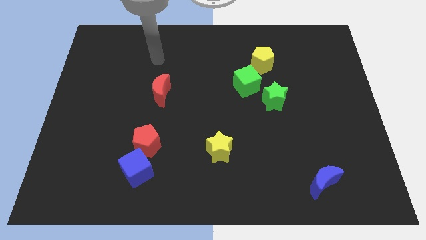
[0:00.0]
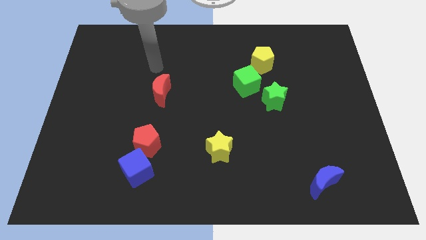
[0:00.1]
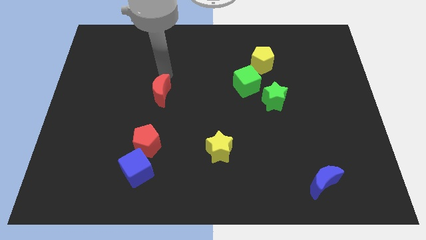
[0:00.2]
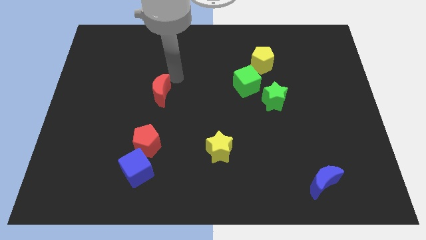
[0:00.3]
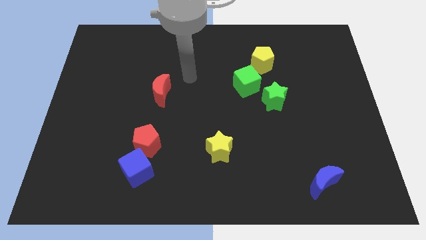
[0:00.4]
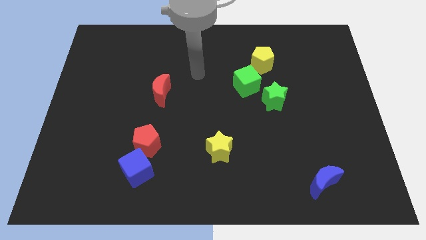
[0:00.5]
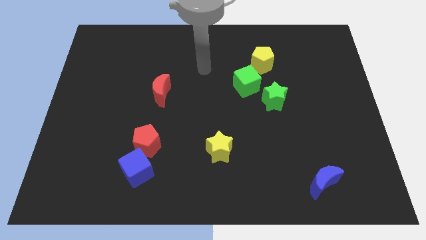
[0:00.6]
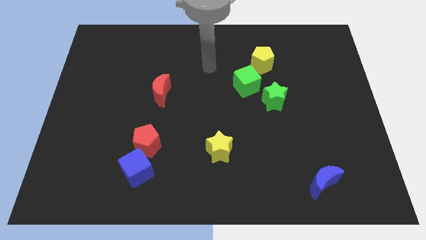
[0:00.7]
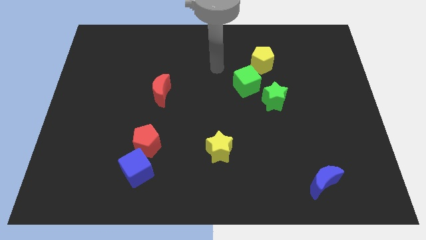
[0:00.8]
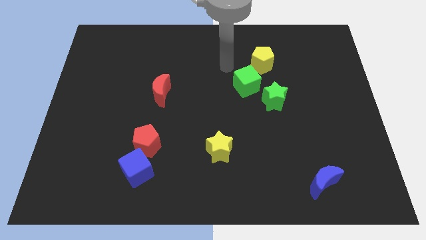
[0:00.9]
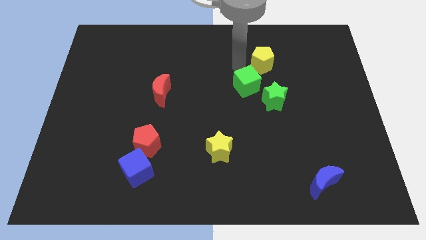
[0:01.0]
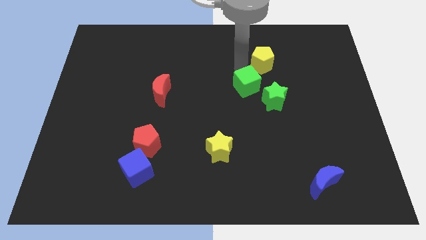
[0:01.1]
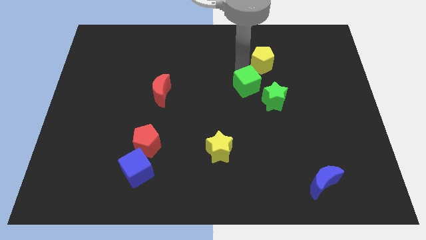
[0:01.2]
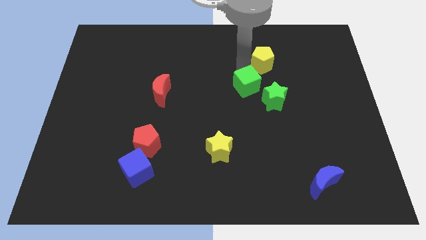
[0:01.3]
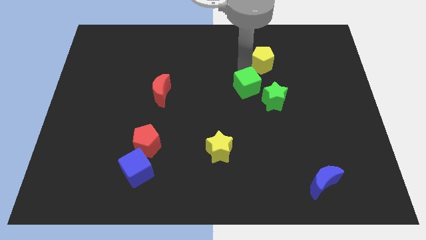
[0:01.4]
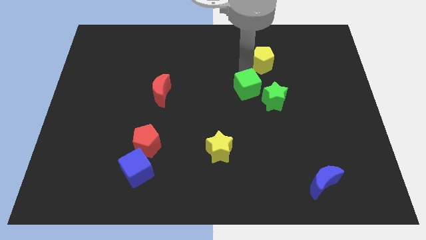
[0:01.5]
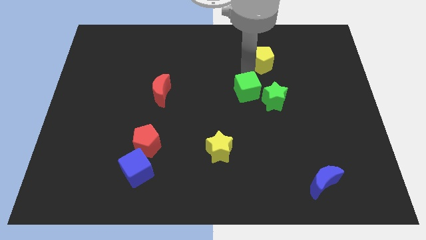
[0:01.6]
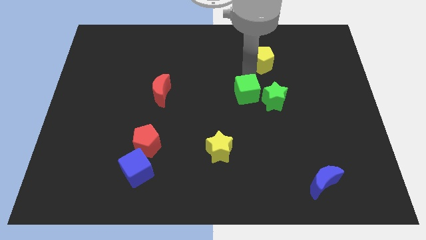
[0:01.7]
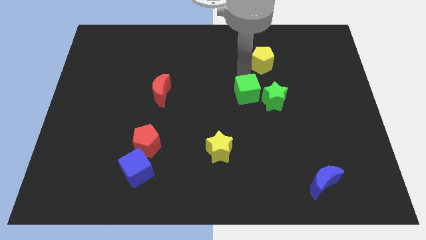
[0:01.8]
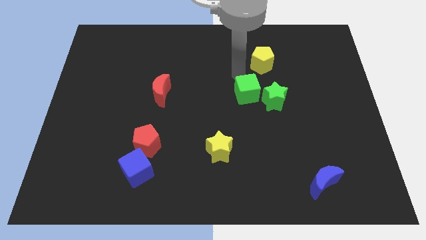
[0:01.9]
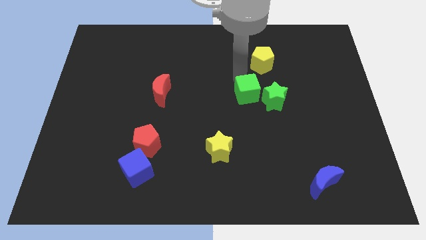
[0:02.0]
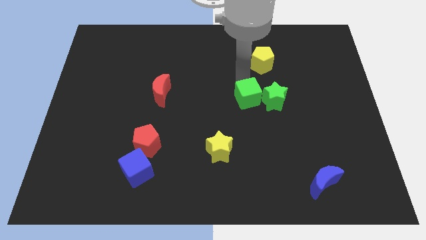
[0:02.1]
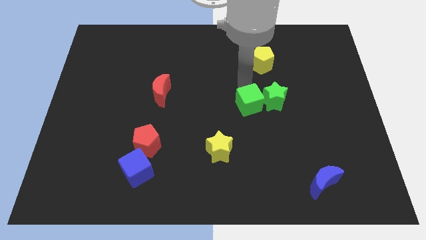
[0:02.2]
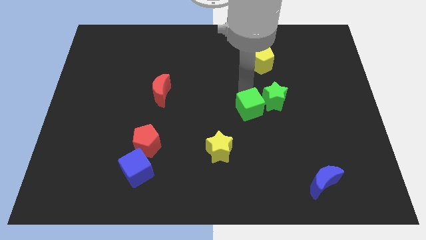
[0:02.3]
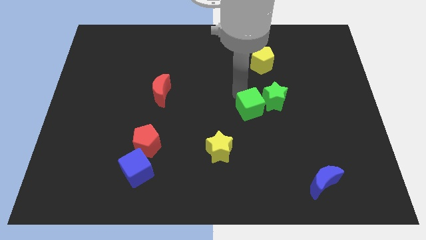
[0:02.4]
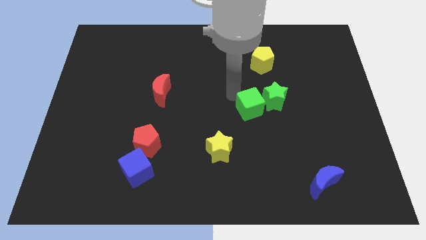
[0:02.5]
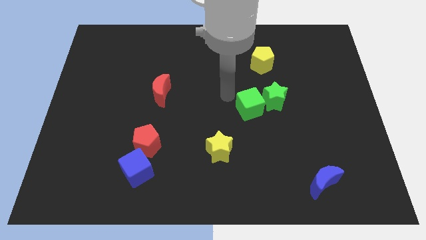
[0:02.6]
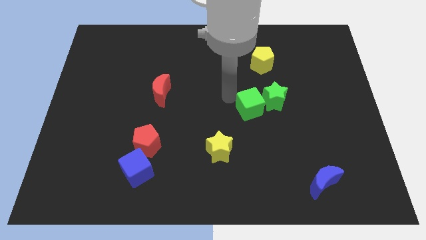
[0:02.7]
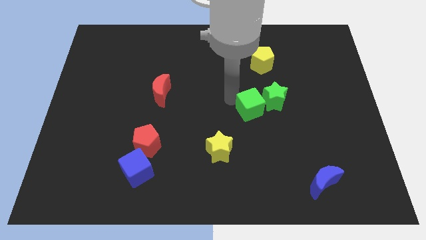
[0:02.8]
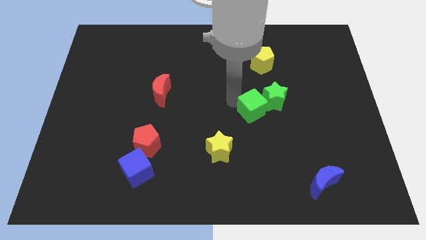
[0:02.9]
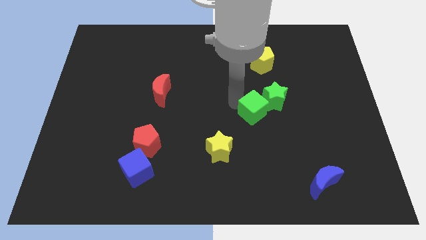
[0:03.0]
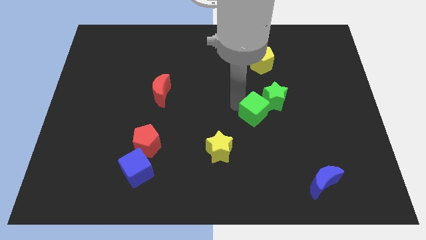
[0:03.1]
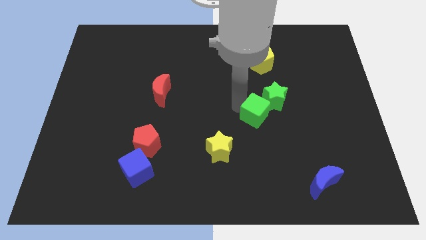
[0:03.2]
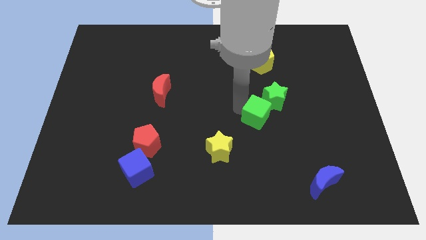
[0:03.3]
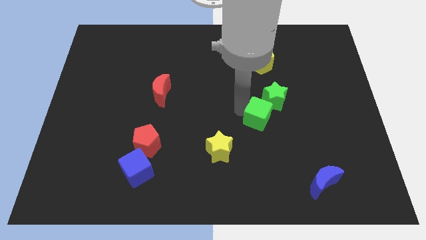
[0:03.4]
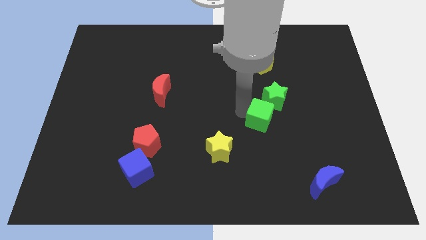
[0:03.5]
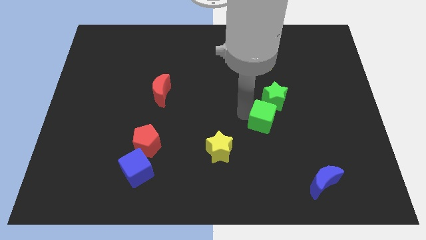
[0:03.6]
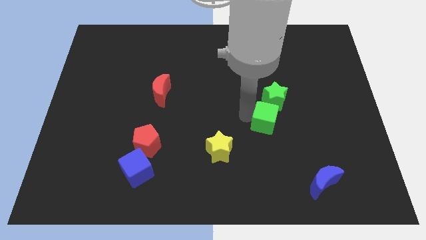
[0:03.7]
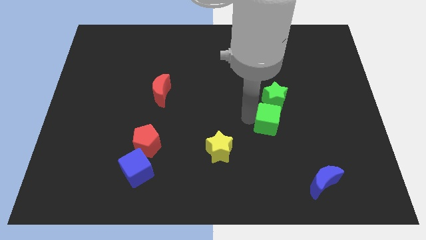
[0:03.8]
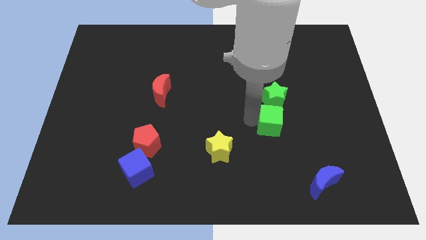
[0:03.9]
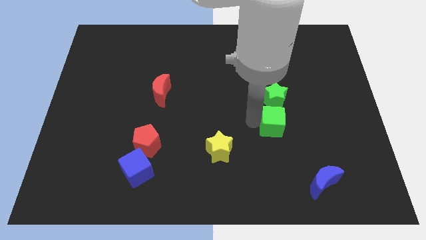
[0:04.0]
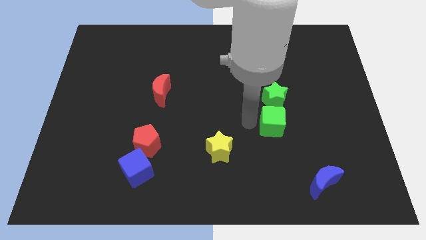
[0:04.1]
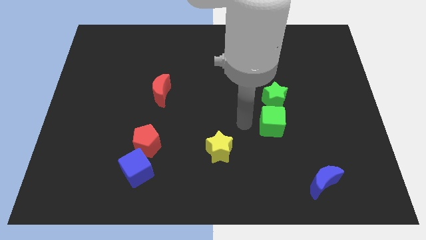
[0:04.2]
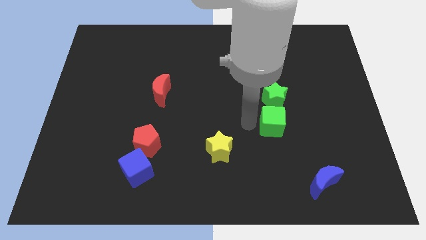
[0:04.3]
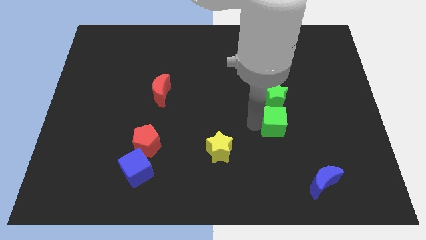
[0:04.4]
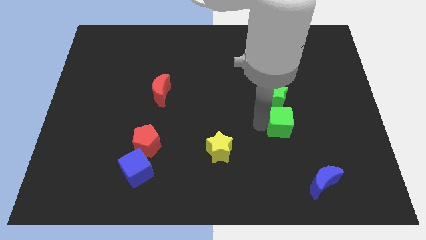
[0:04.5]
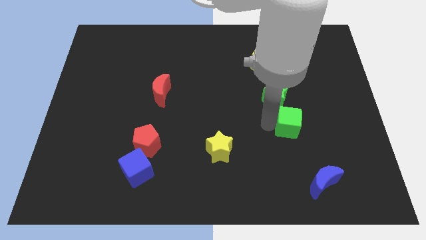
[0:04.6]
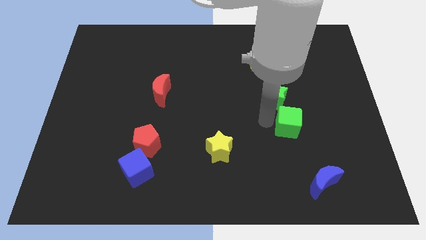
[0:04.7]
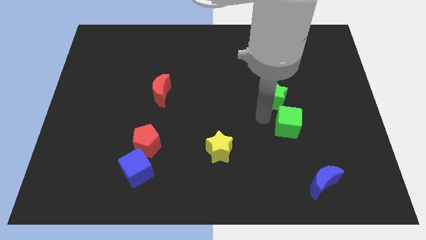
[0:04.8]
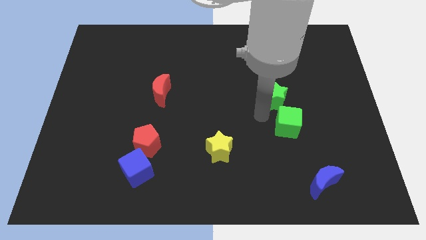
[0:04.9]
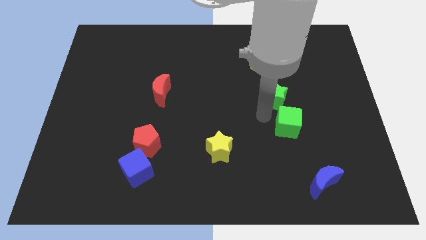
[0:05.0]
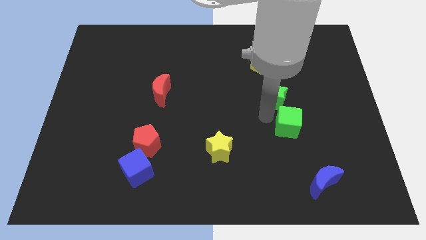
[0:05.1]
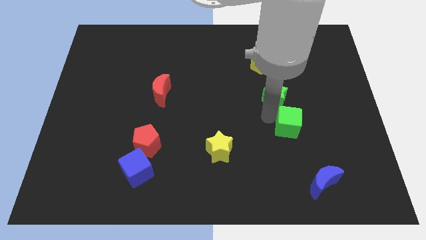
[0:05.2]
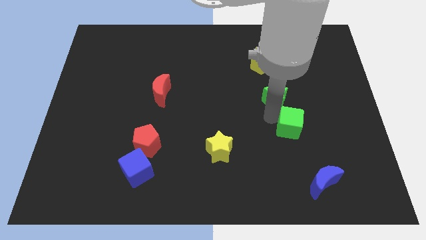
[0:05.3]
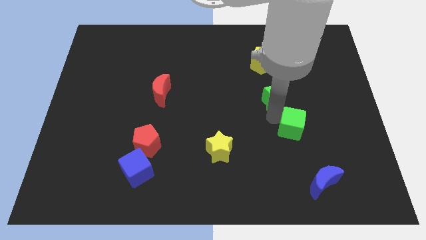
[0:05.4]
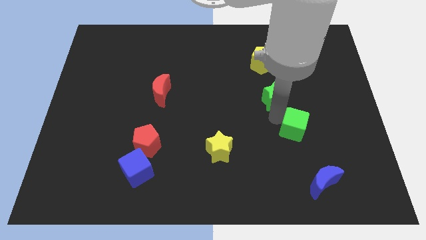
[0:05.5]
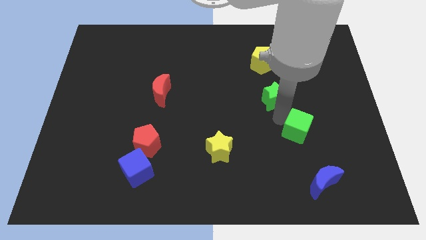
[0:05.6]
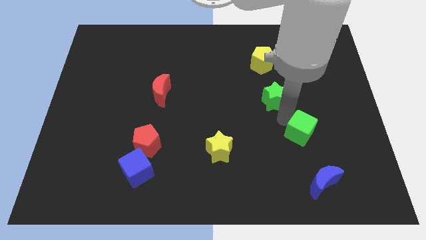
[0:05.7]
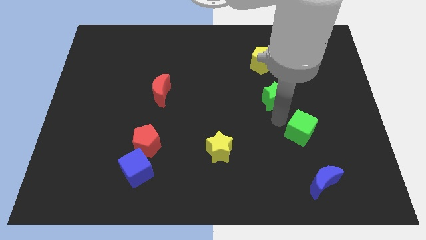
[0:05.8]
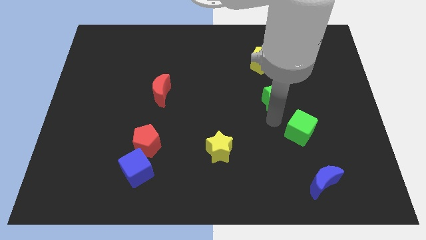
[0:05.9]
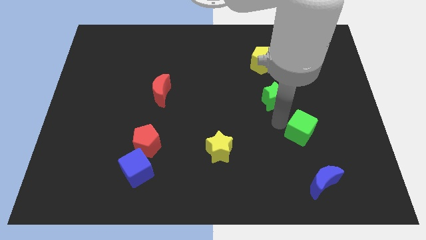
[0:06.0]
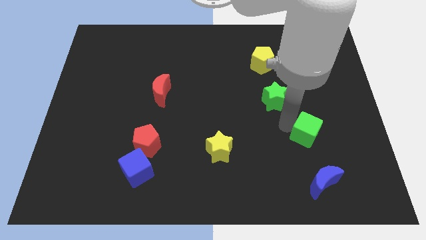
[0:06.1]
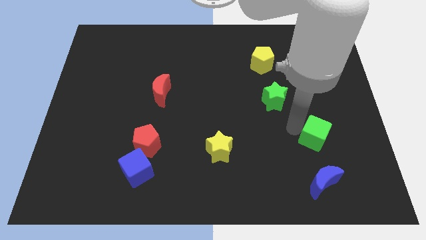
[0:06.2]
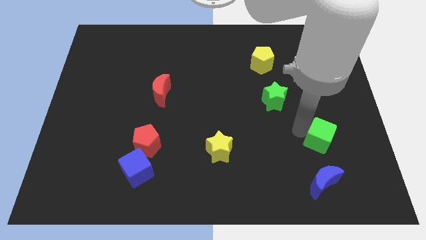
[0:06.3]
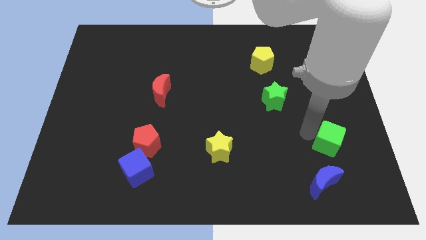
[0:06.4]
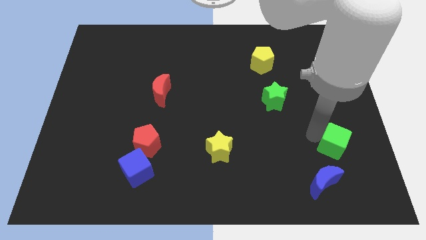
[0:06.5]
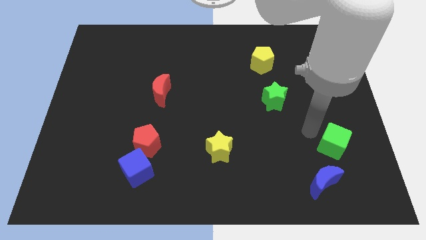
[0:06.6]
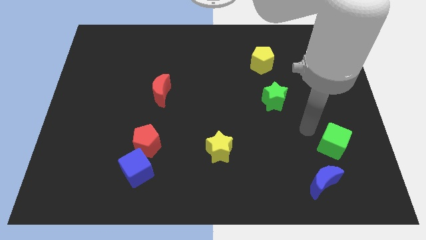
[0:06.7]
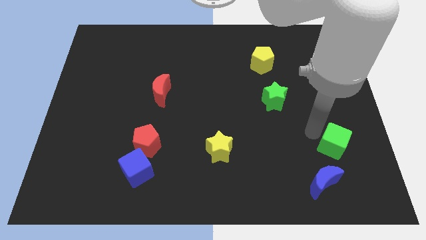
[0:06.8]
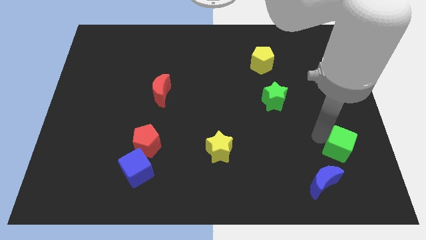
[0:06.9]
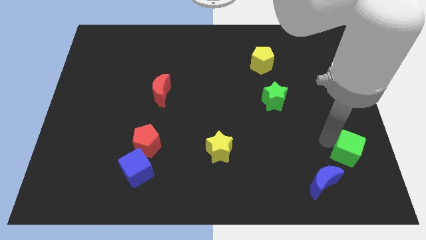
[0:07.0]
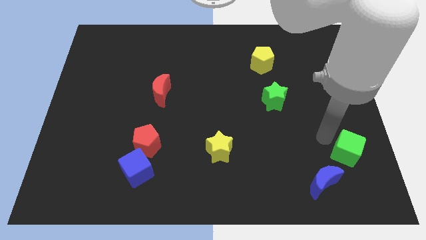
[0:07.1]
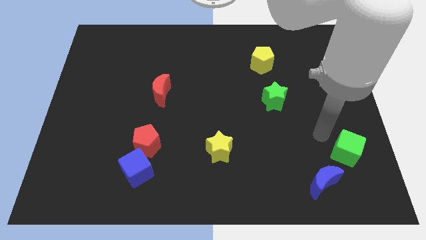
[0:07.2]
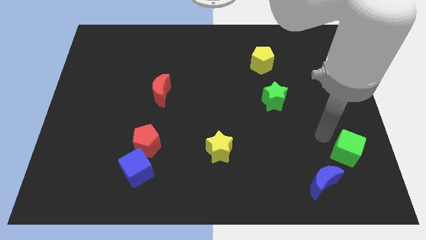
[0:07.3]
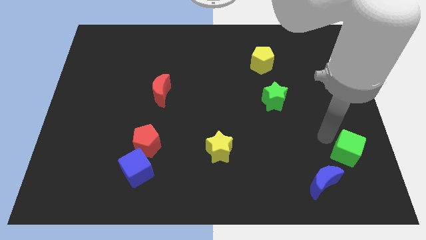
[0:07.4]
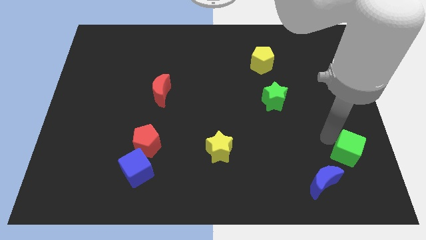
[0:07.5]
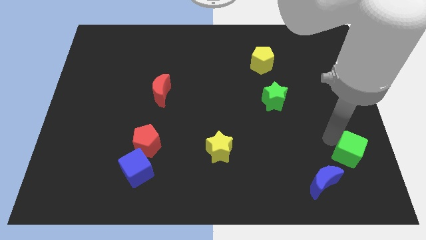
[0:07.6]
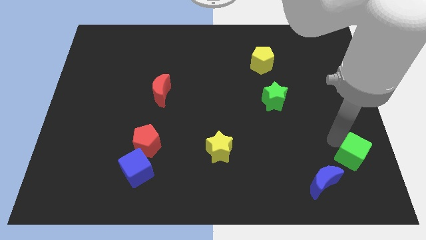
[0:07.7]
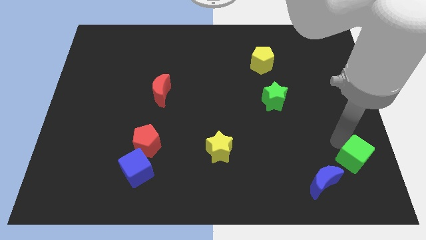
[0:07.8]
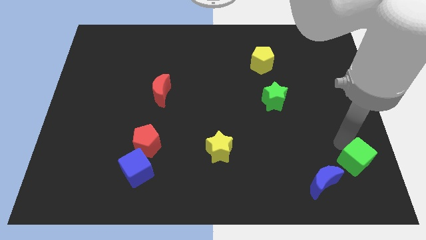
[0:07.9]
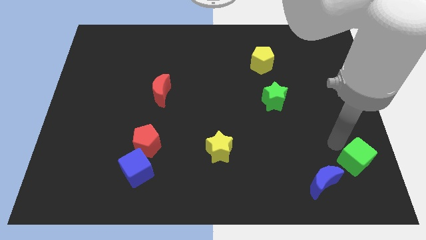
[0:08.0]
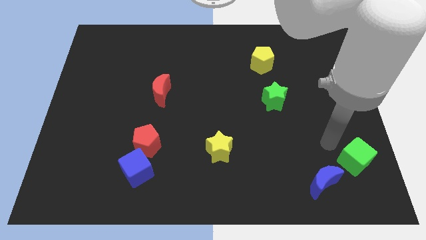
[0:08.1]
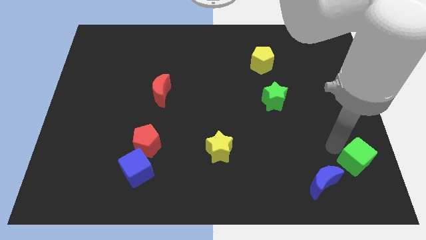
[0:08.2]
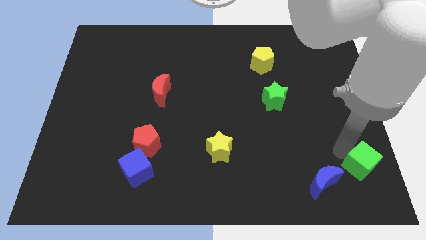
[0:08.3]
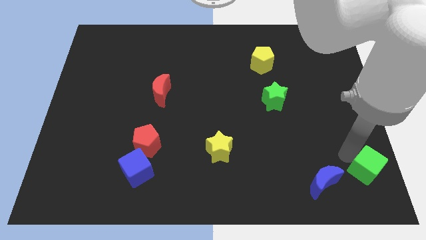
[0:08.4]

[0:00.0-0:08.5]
slide the green cube to the bottom right
